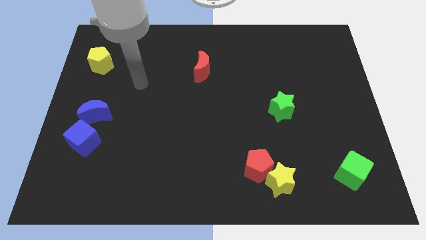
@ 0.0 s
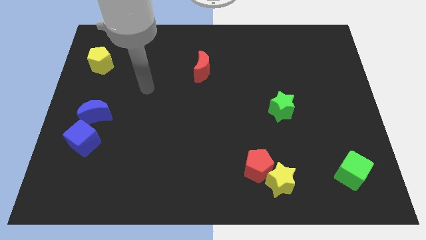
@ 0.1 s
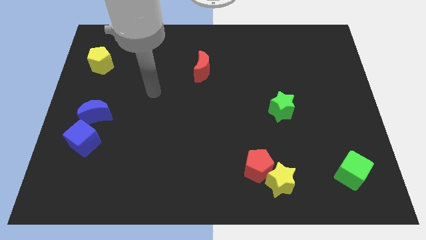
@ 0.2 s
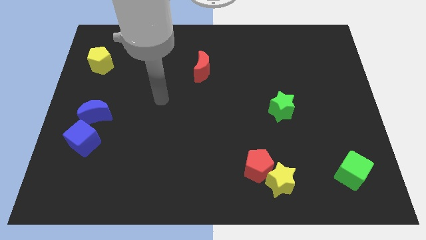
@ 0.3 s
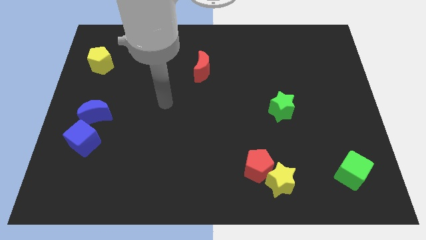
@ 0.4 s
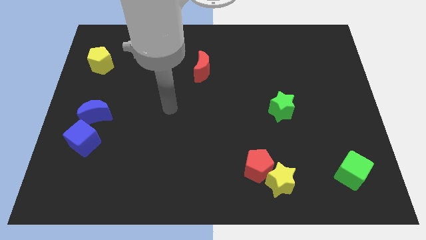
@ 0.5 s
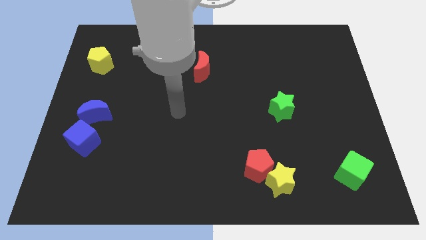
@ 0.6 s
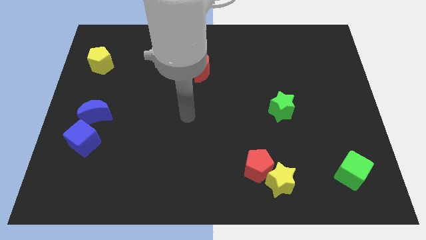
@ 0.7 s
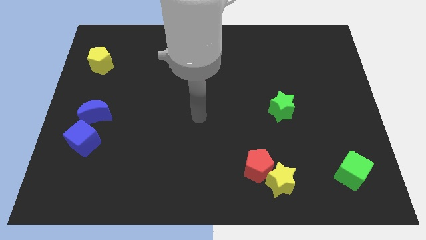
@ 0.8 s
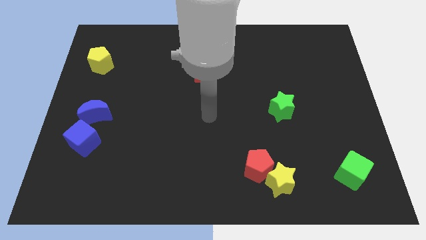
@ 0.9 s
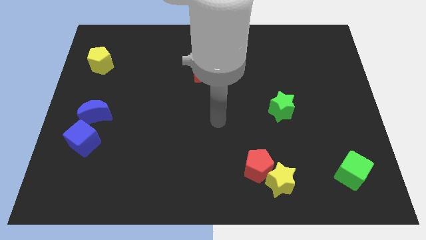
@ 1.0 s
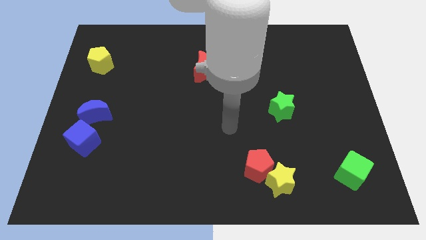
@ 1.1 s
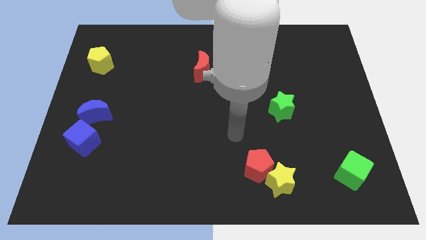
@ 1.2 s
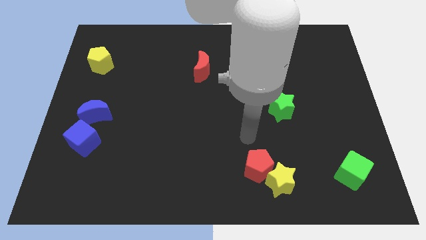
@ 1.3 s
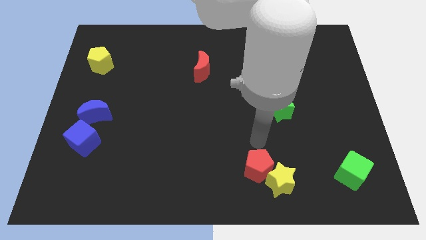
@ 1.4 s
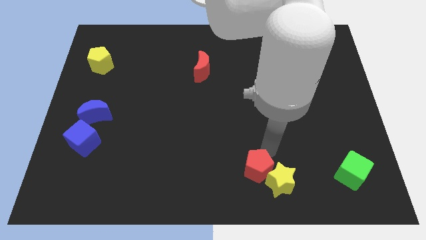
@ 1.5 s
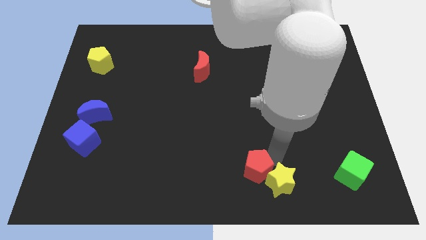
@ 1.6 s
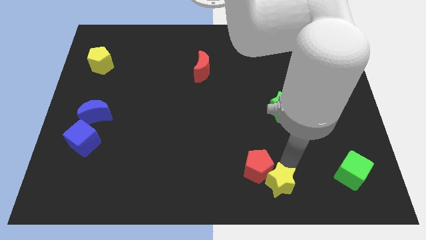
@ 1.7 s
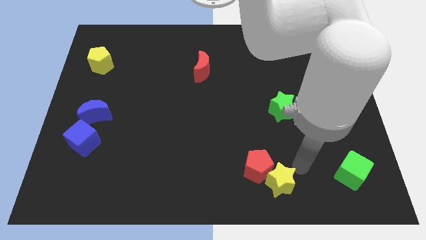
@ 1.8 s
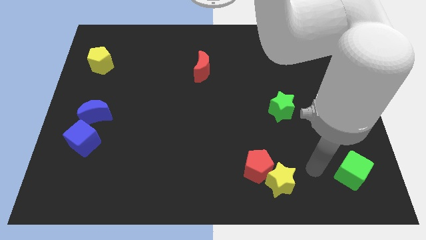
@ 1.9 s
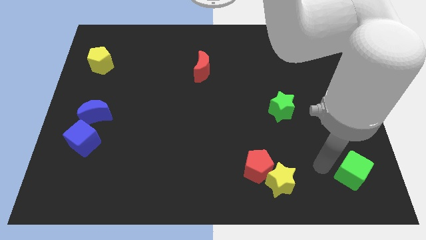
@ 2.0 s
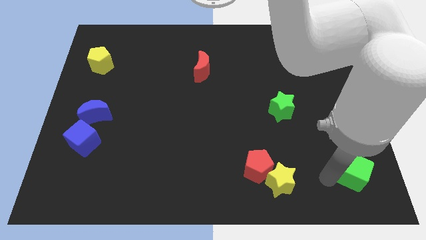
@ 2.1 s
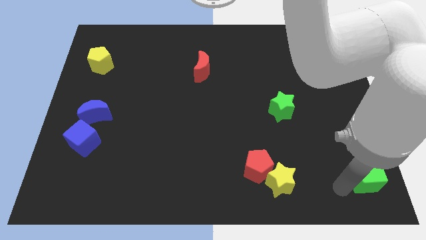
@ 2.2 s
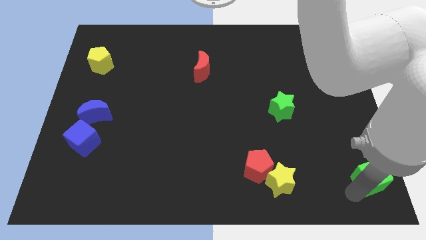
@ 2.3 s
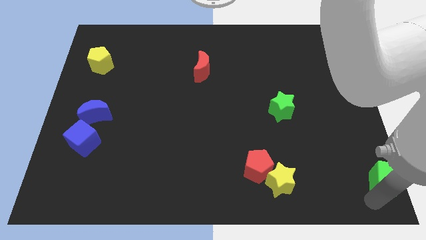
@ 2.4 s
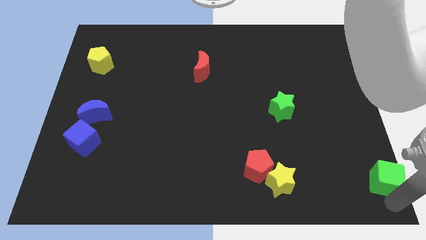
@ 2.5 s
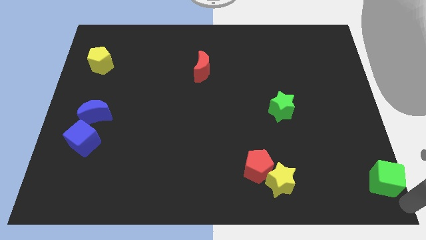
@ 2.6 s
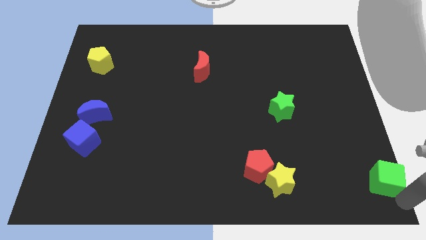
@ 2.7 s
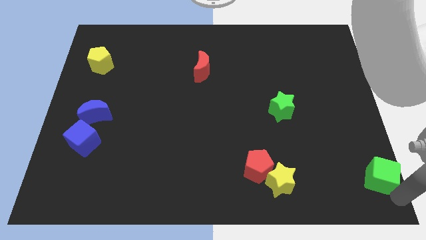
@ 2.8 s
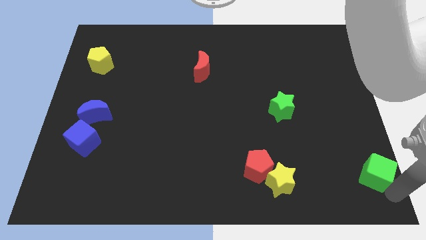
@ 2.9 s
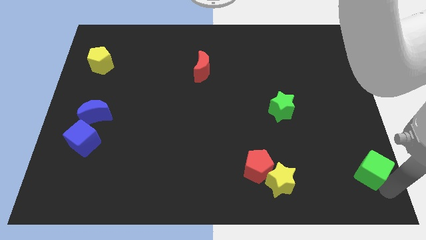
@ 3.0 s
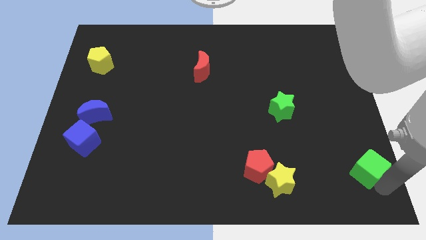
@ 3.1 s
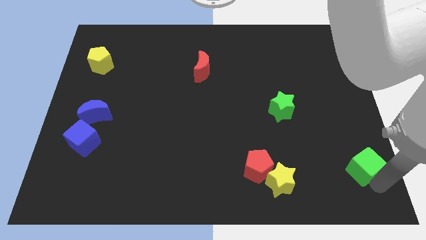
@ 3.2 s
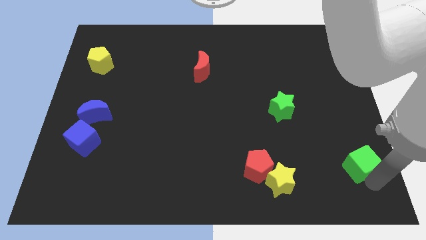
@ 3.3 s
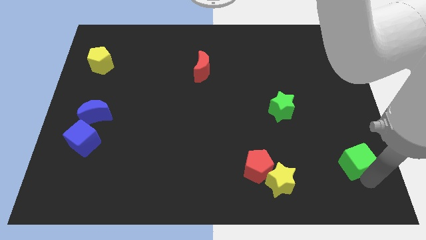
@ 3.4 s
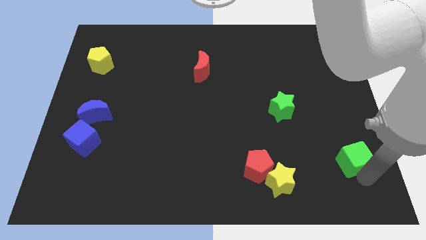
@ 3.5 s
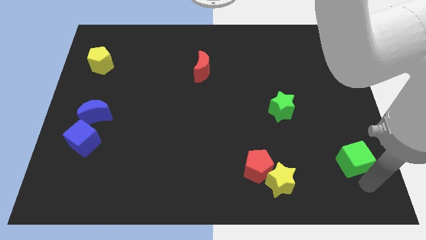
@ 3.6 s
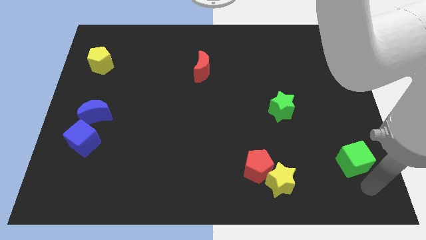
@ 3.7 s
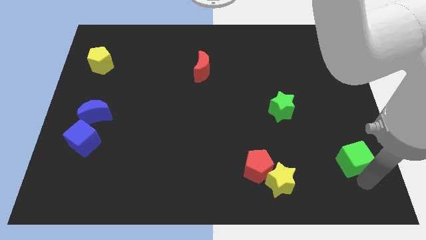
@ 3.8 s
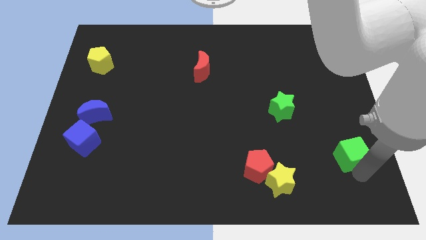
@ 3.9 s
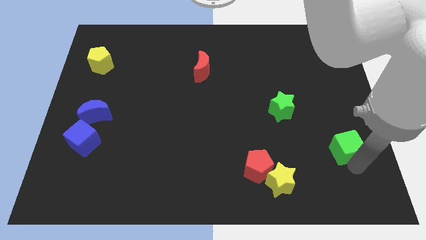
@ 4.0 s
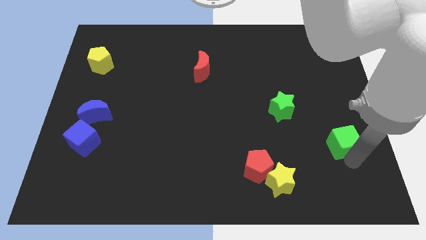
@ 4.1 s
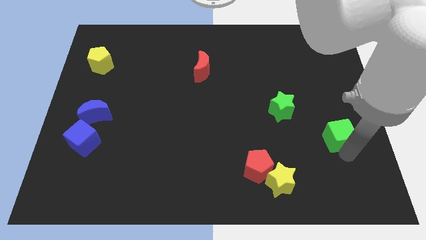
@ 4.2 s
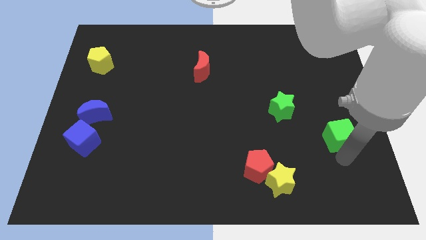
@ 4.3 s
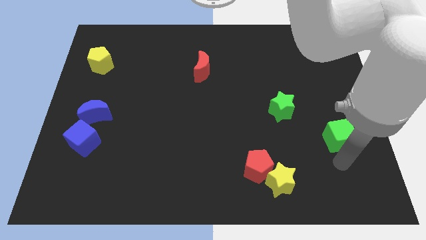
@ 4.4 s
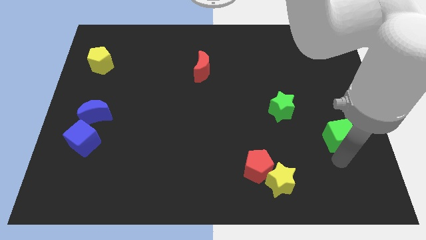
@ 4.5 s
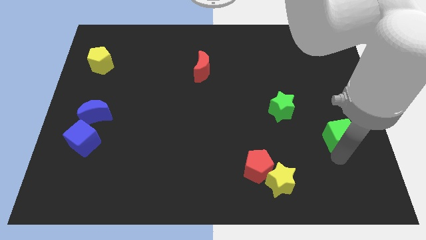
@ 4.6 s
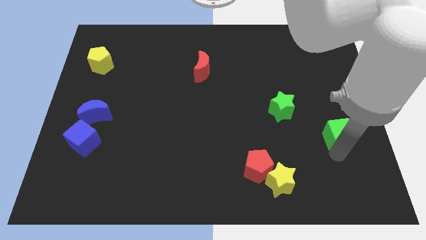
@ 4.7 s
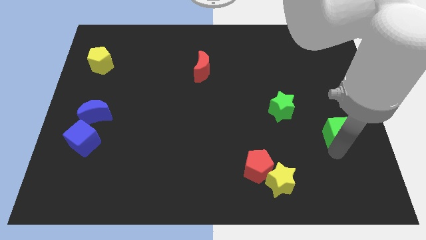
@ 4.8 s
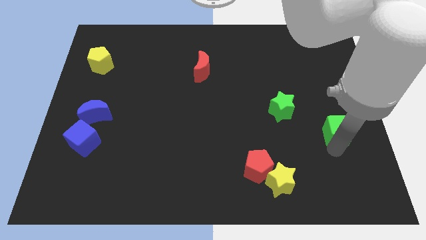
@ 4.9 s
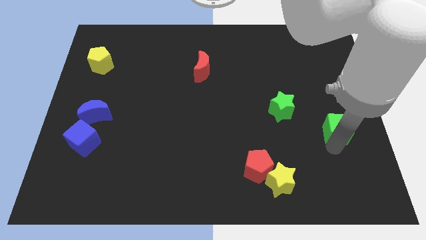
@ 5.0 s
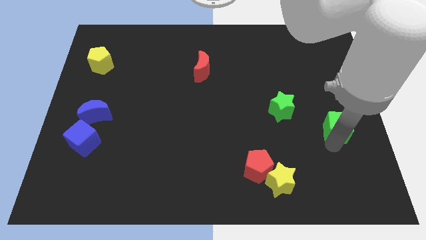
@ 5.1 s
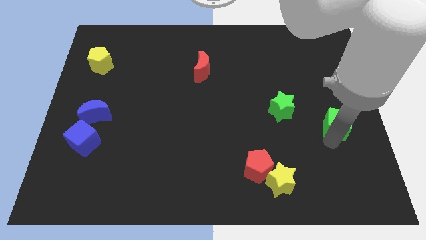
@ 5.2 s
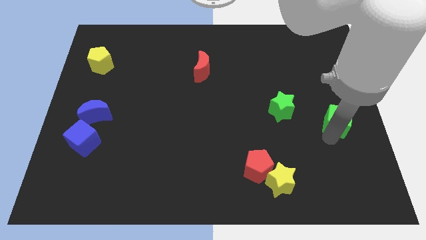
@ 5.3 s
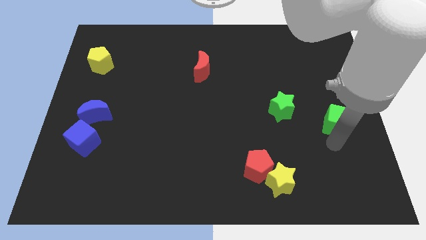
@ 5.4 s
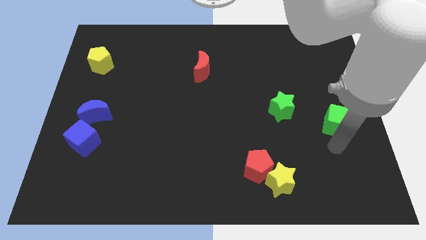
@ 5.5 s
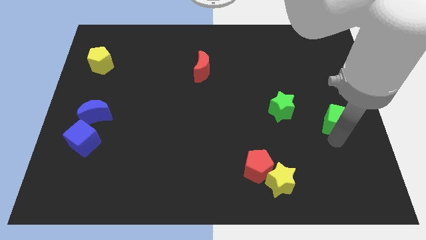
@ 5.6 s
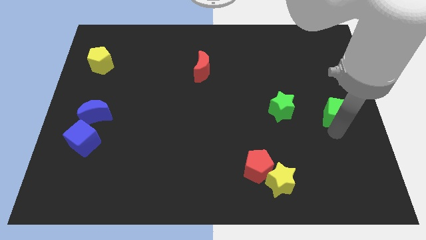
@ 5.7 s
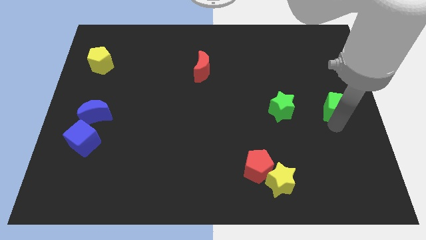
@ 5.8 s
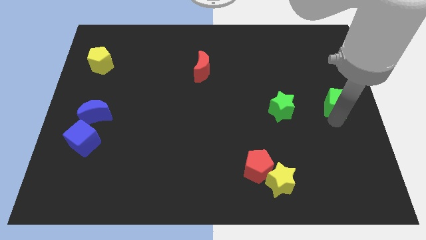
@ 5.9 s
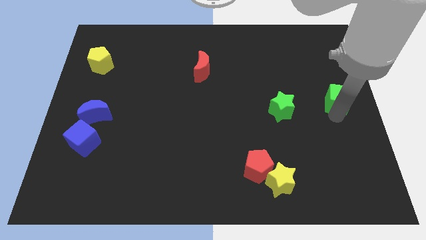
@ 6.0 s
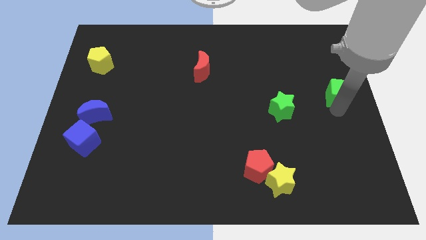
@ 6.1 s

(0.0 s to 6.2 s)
move the green cube up

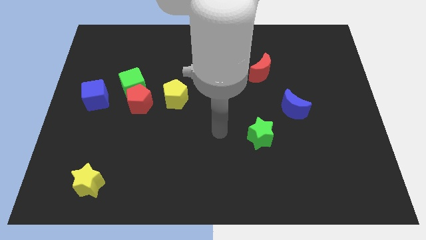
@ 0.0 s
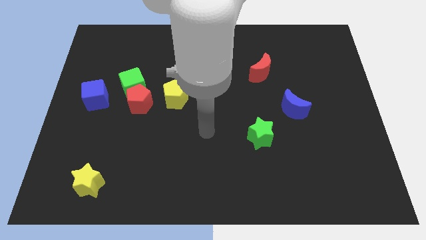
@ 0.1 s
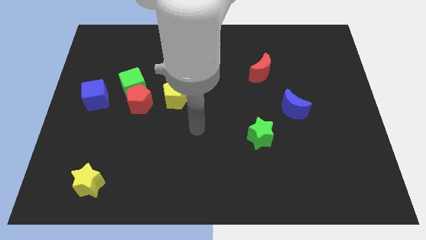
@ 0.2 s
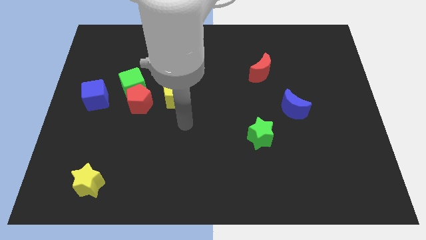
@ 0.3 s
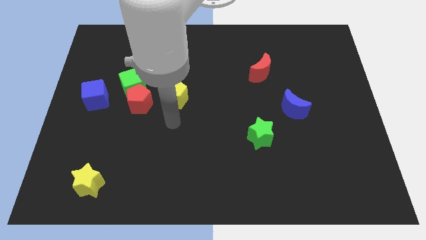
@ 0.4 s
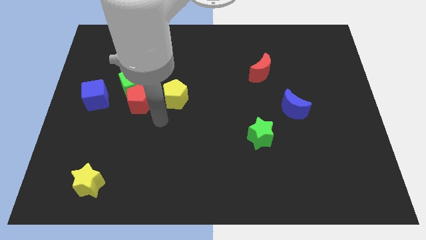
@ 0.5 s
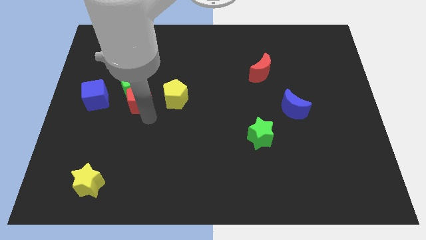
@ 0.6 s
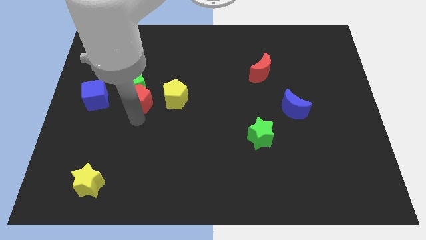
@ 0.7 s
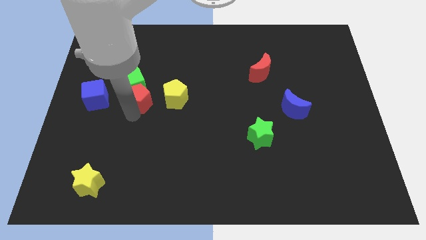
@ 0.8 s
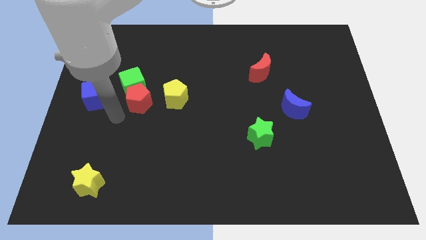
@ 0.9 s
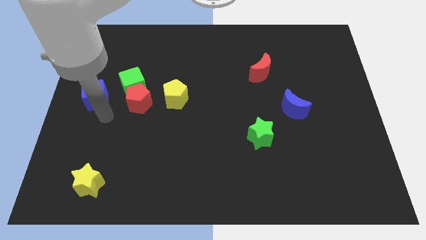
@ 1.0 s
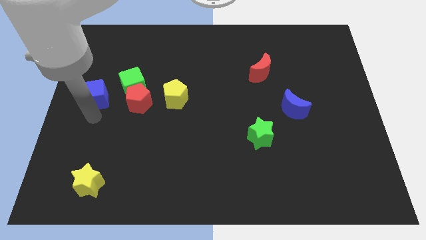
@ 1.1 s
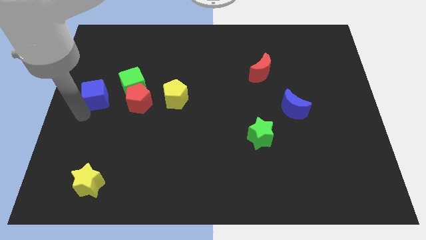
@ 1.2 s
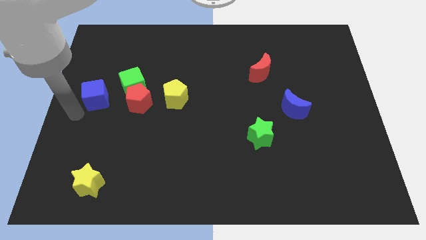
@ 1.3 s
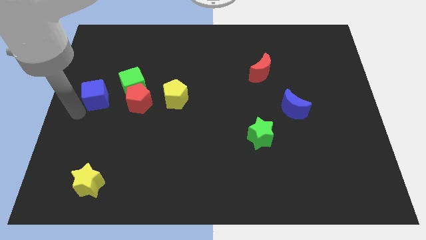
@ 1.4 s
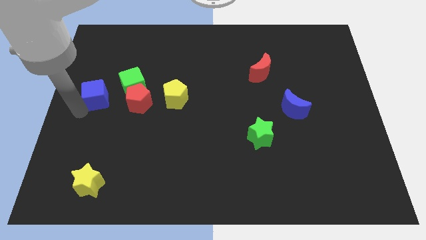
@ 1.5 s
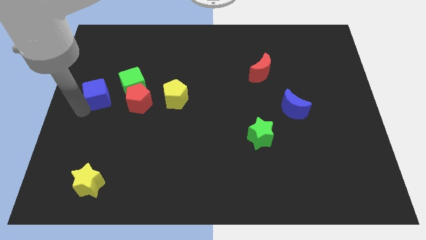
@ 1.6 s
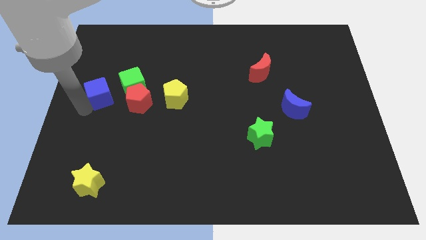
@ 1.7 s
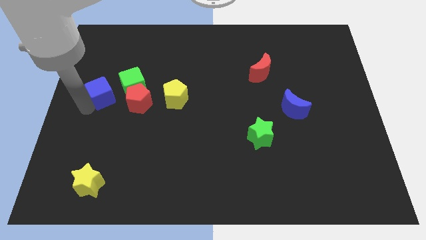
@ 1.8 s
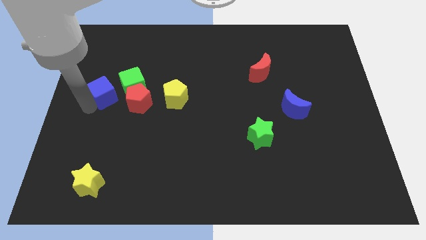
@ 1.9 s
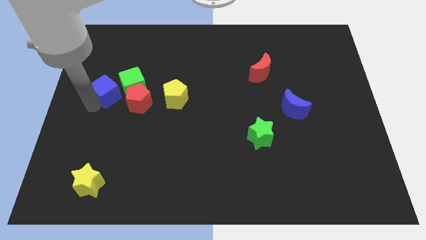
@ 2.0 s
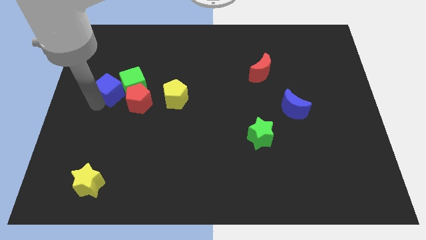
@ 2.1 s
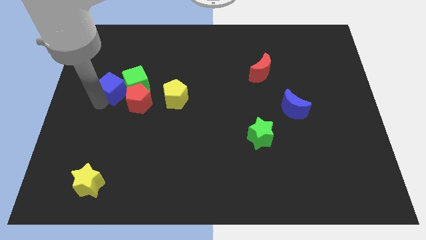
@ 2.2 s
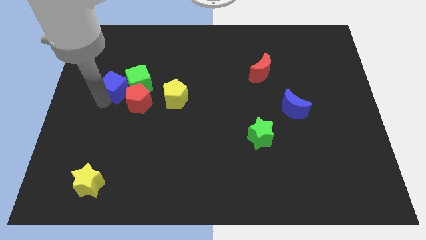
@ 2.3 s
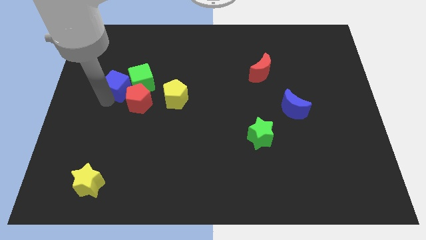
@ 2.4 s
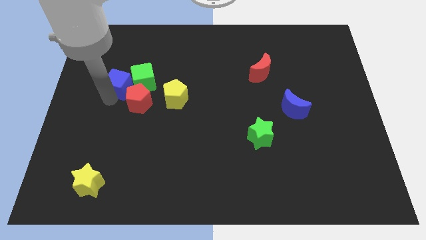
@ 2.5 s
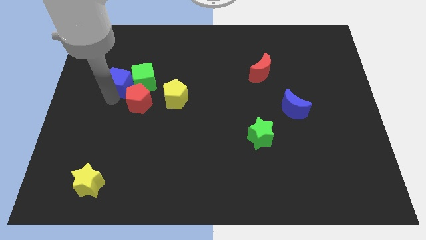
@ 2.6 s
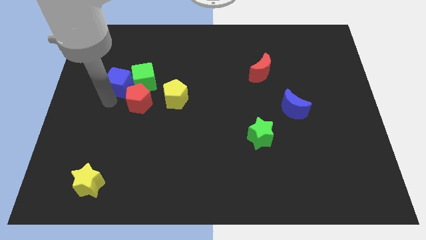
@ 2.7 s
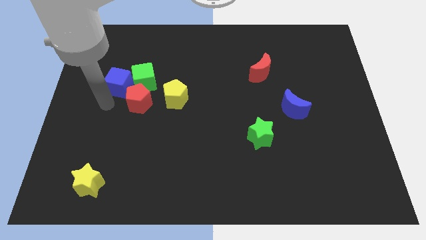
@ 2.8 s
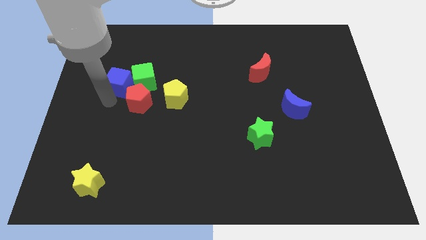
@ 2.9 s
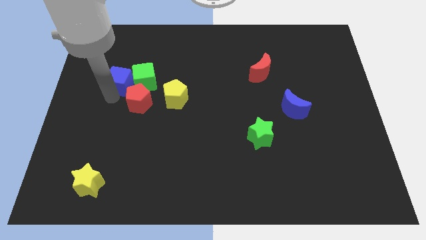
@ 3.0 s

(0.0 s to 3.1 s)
slightly push the blue cube upwards and right diagonally
